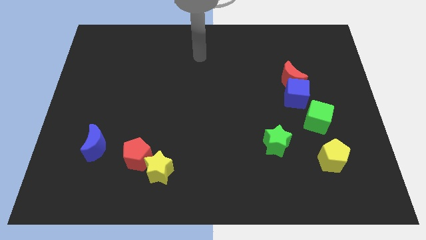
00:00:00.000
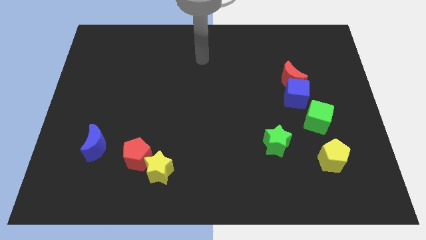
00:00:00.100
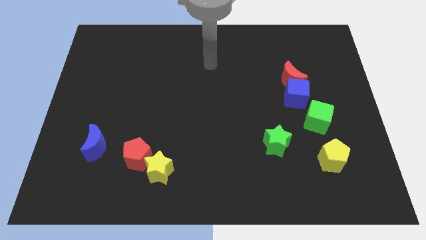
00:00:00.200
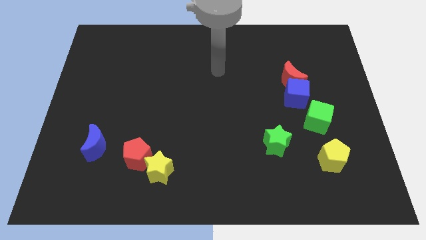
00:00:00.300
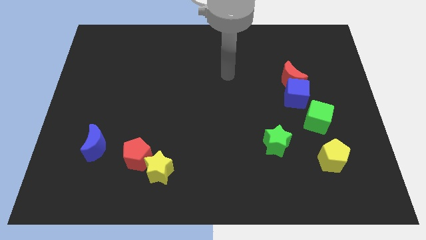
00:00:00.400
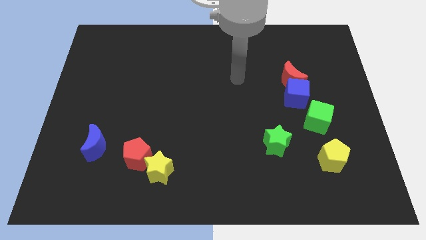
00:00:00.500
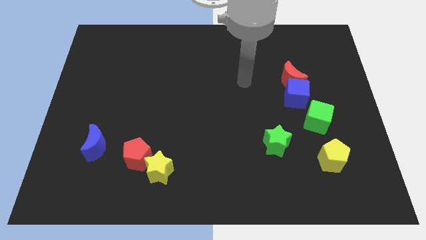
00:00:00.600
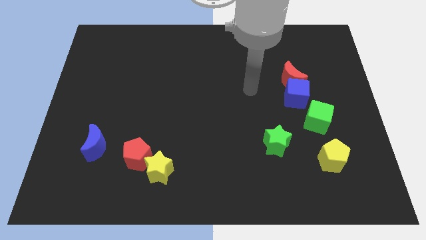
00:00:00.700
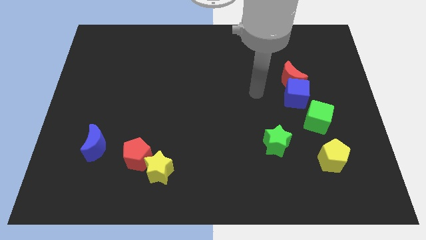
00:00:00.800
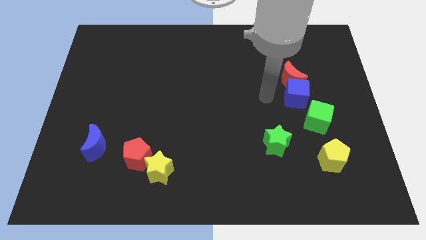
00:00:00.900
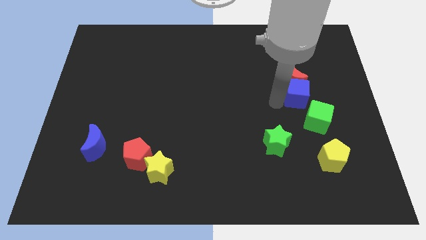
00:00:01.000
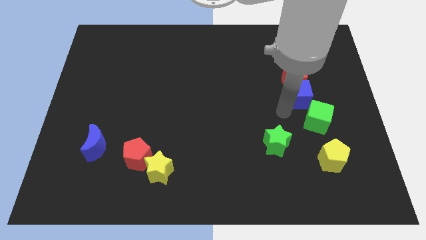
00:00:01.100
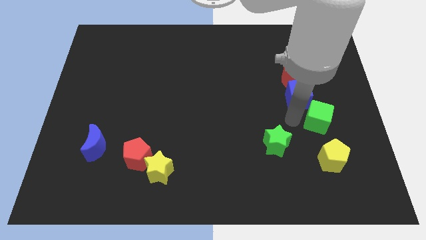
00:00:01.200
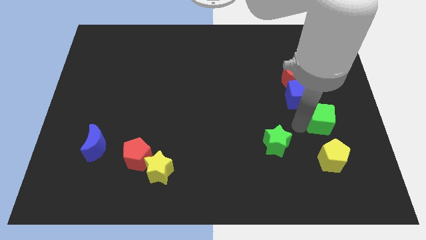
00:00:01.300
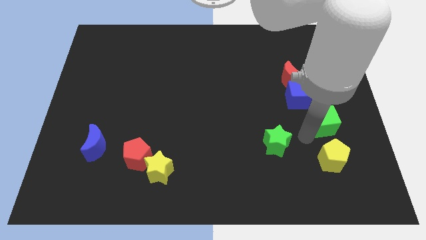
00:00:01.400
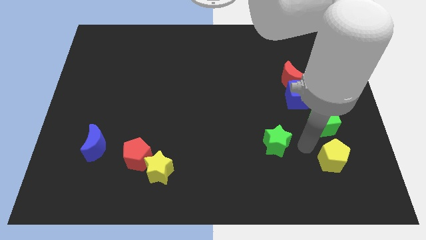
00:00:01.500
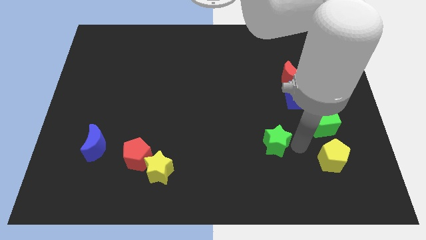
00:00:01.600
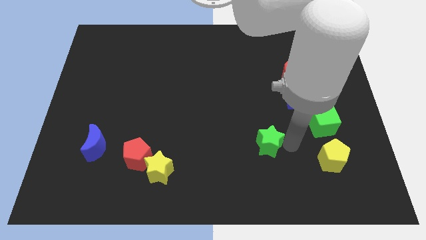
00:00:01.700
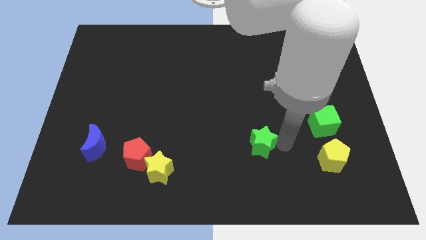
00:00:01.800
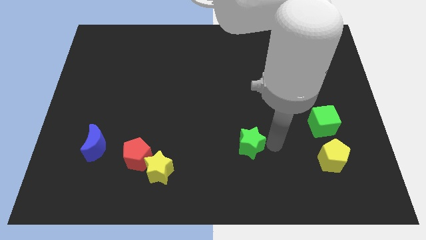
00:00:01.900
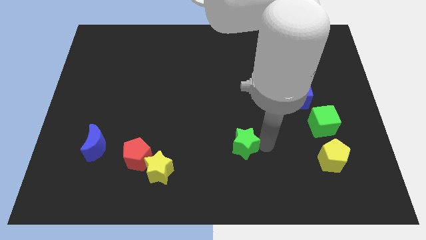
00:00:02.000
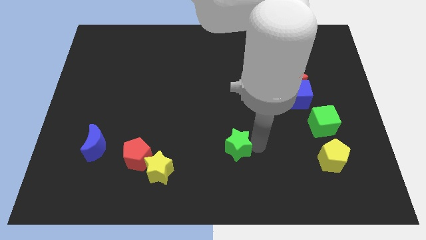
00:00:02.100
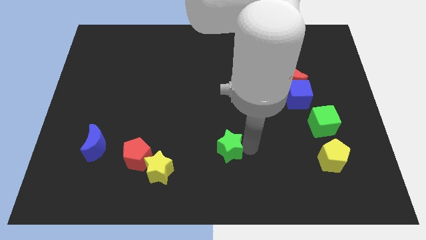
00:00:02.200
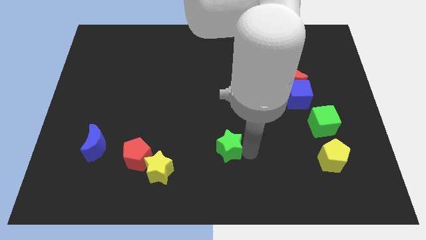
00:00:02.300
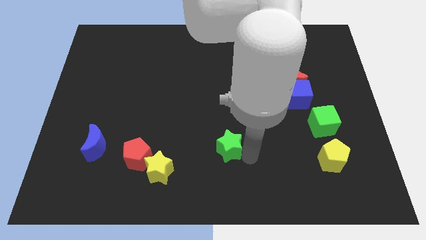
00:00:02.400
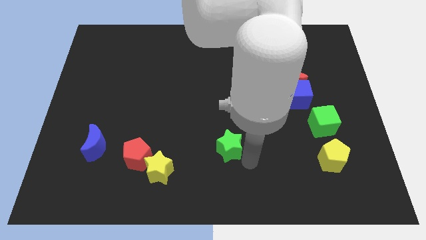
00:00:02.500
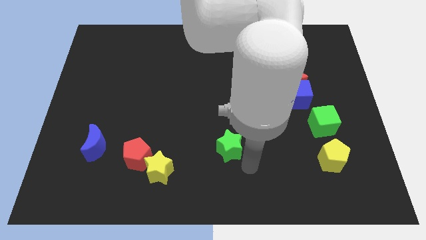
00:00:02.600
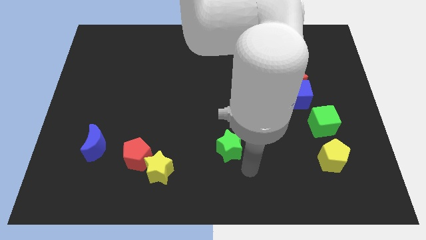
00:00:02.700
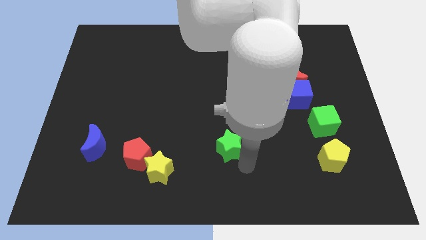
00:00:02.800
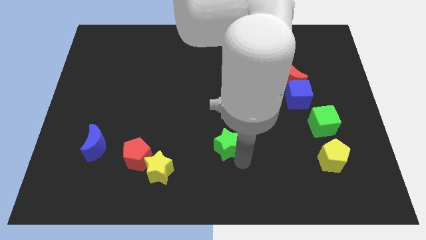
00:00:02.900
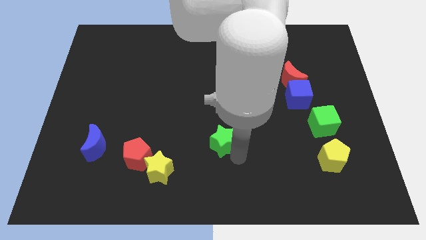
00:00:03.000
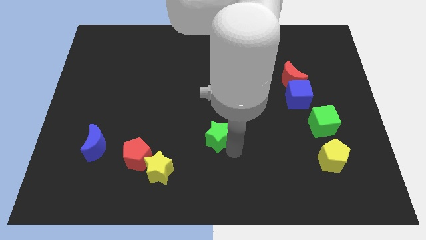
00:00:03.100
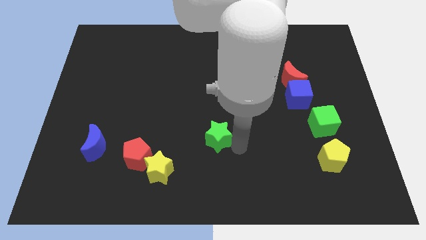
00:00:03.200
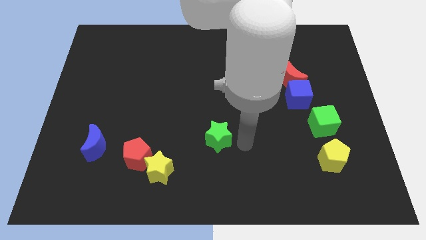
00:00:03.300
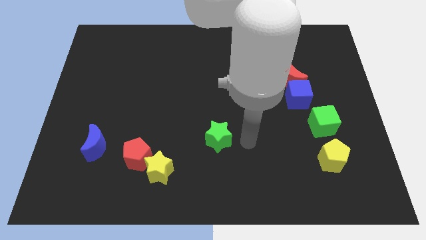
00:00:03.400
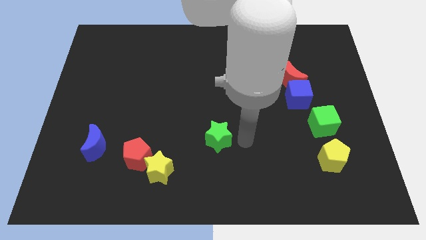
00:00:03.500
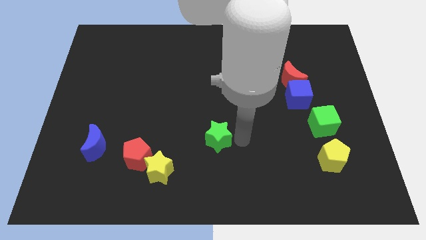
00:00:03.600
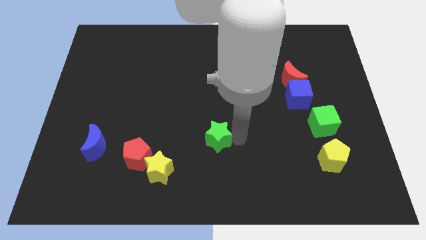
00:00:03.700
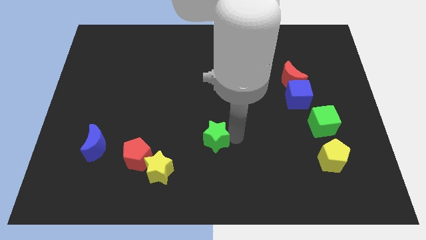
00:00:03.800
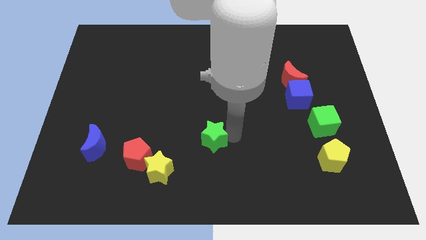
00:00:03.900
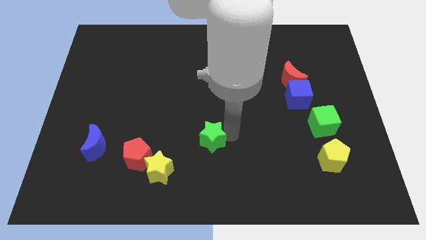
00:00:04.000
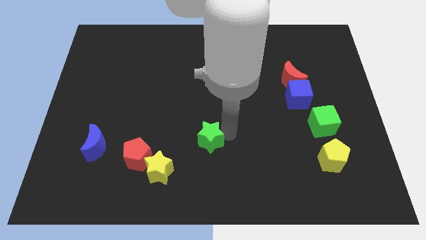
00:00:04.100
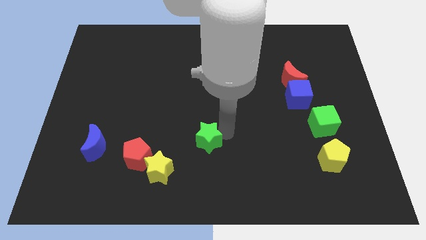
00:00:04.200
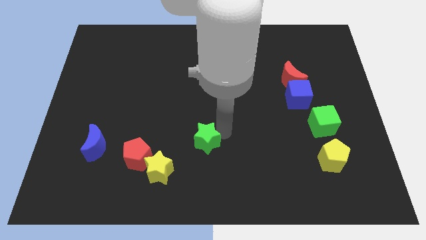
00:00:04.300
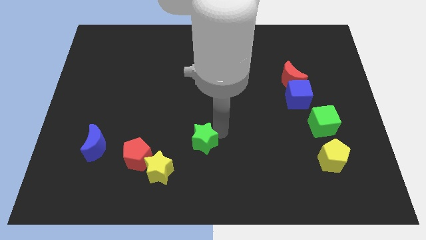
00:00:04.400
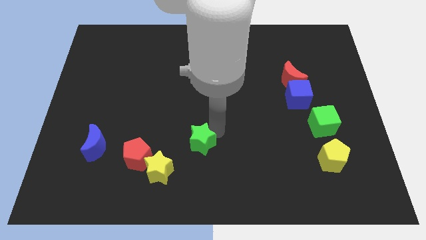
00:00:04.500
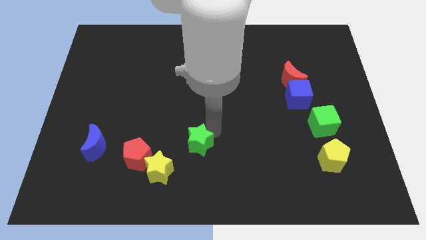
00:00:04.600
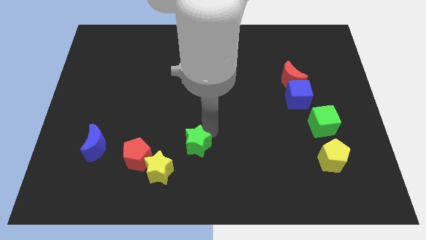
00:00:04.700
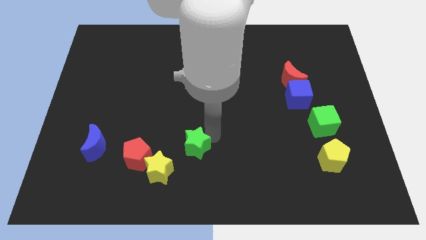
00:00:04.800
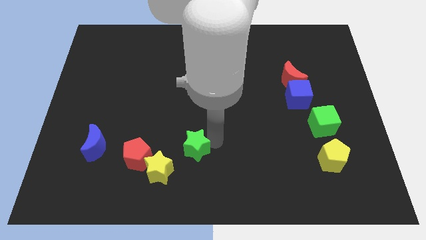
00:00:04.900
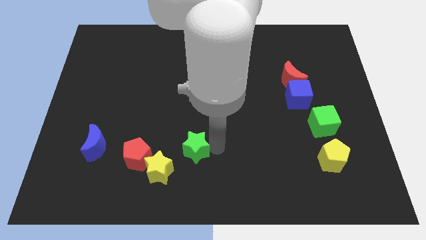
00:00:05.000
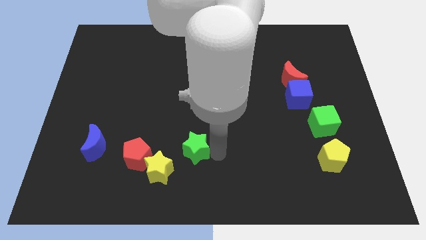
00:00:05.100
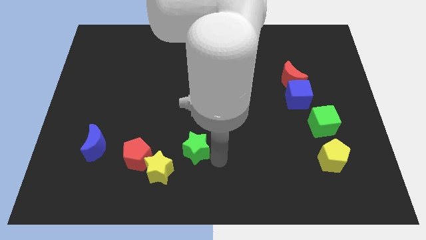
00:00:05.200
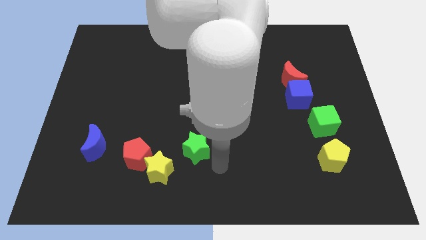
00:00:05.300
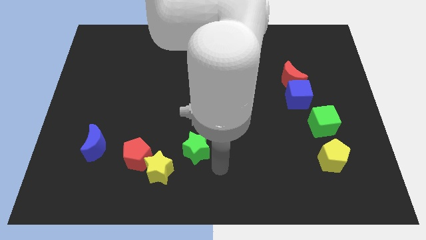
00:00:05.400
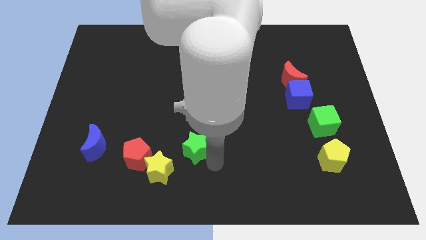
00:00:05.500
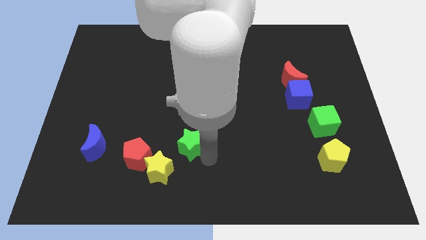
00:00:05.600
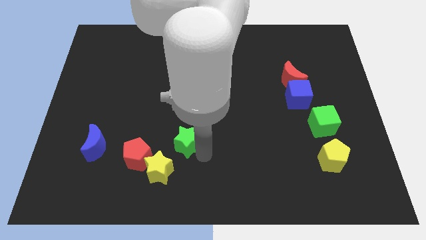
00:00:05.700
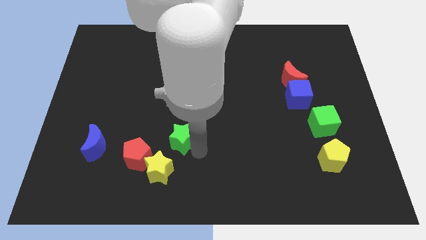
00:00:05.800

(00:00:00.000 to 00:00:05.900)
slide the green star left

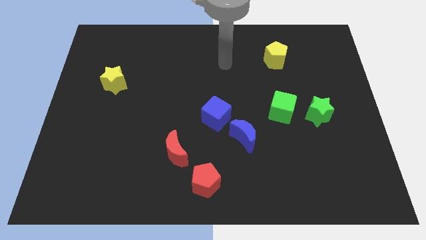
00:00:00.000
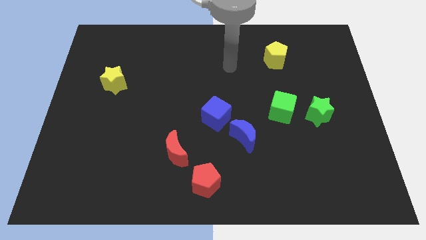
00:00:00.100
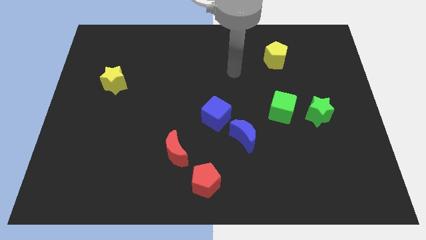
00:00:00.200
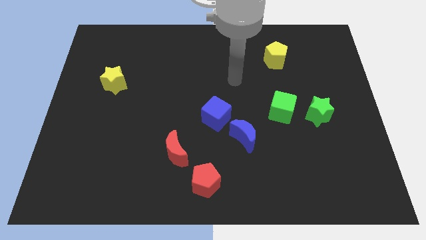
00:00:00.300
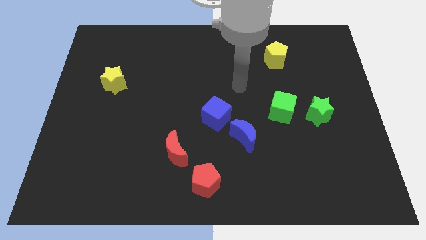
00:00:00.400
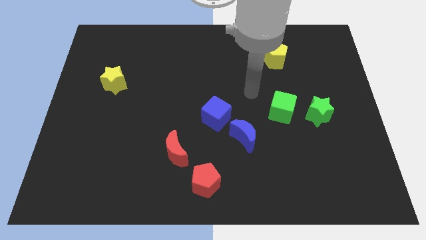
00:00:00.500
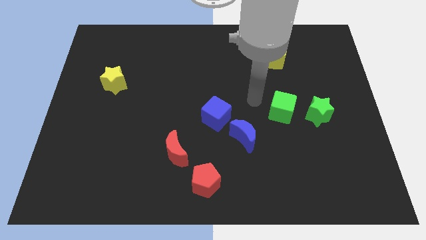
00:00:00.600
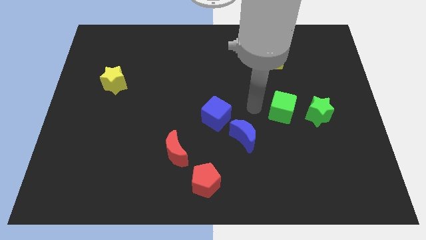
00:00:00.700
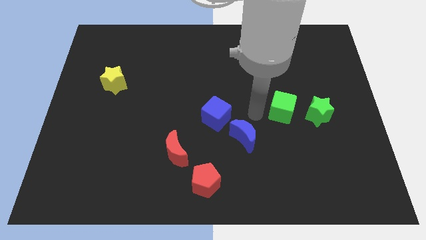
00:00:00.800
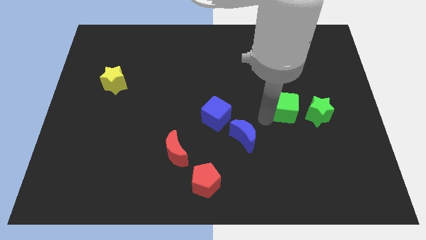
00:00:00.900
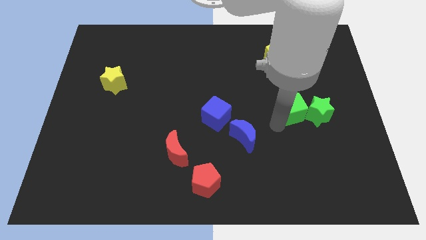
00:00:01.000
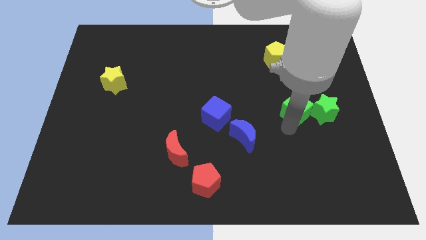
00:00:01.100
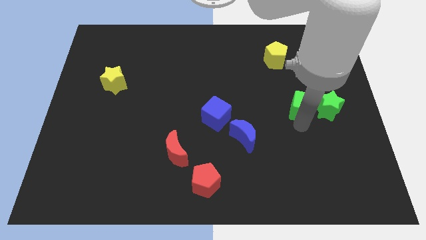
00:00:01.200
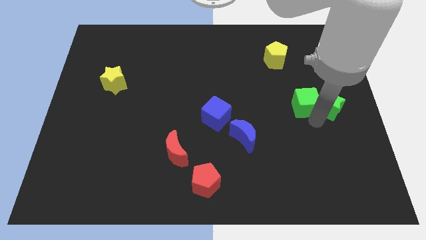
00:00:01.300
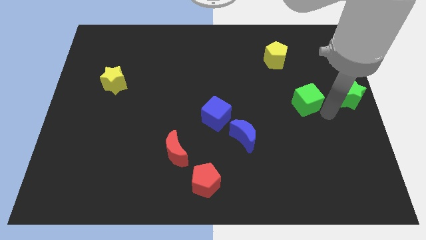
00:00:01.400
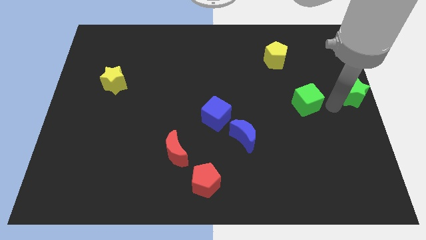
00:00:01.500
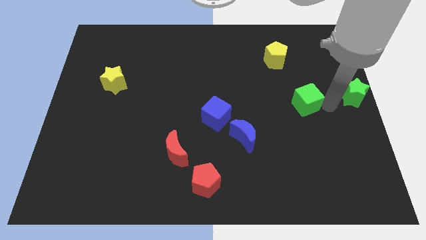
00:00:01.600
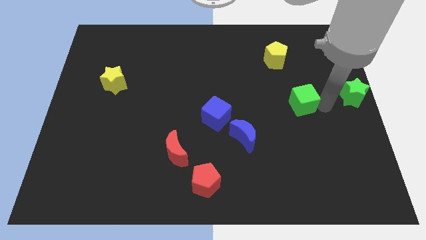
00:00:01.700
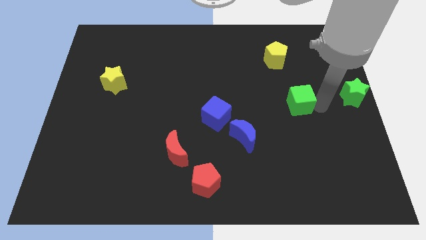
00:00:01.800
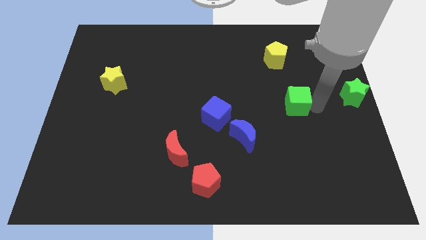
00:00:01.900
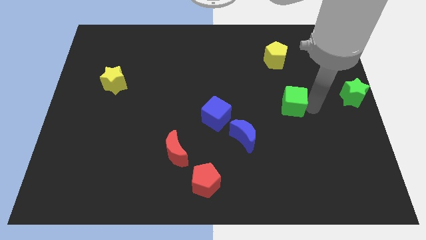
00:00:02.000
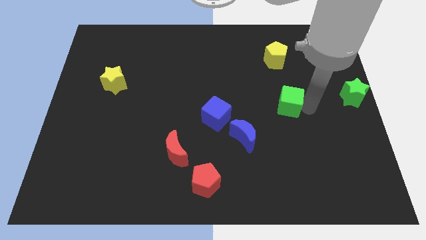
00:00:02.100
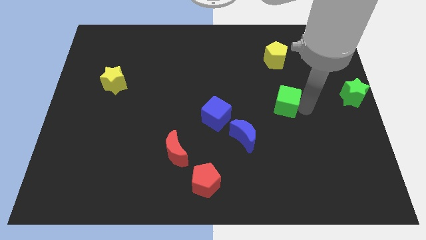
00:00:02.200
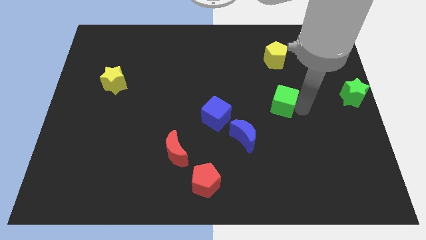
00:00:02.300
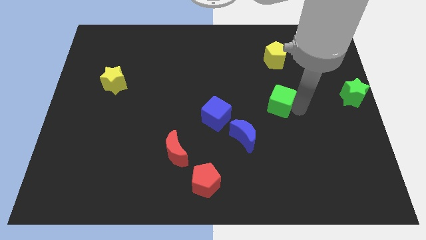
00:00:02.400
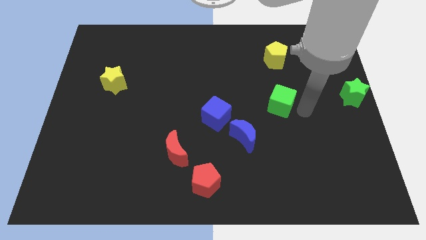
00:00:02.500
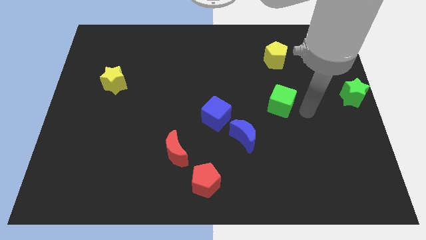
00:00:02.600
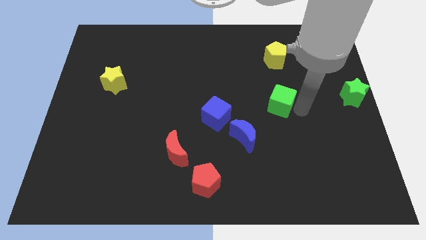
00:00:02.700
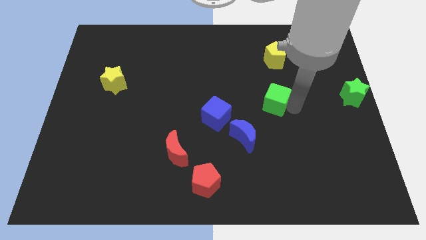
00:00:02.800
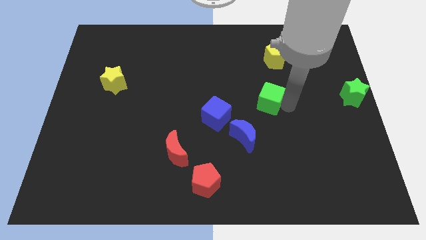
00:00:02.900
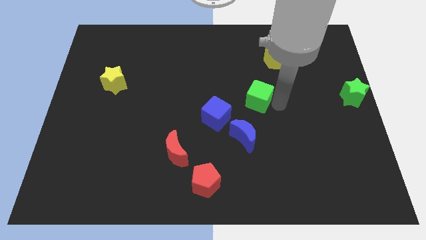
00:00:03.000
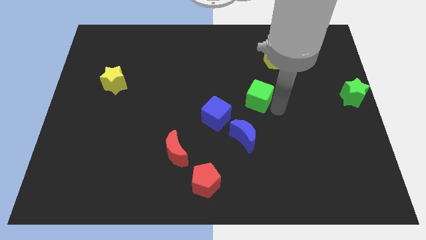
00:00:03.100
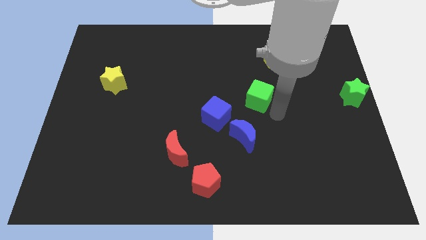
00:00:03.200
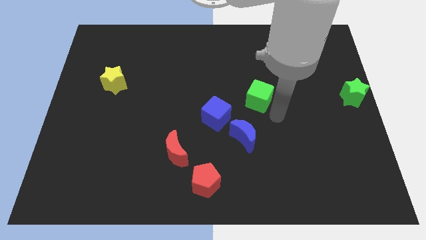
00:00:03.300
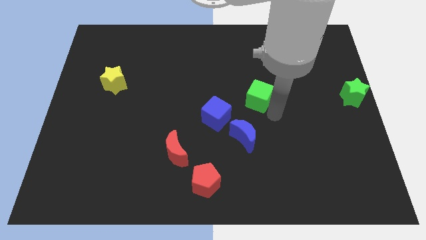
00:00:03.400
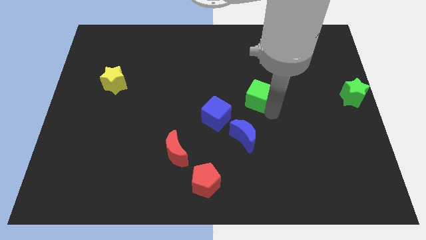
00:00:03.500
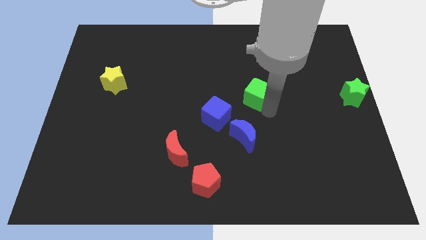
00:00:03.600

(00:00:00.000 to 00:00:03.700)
push the green cube up and left diagonally slightly
